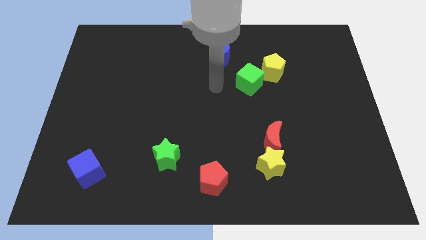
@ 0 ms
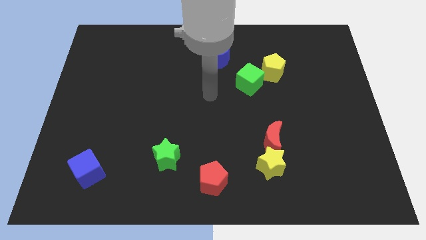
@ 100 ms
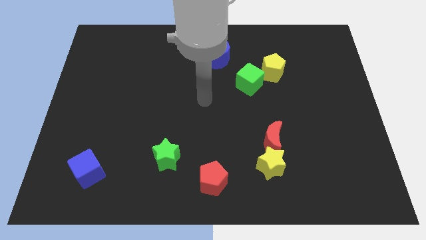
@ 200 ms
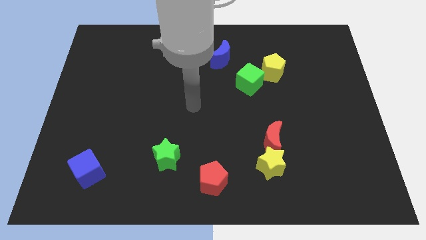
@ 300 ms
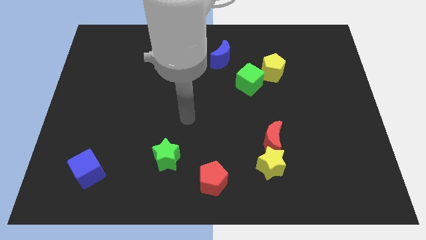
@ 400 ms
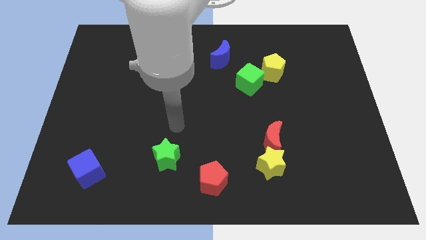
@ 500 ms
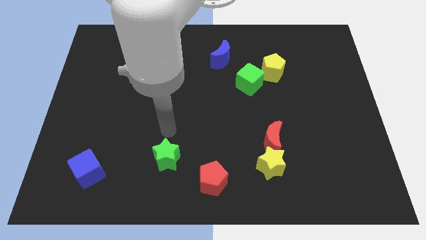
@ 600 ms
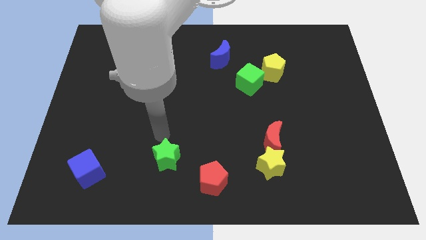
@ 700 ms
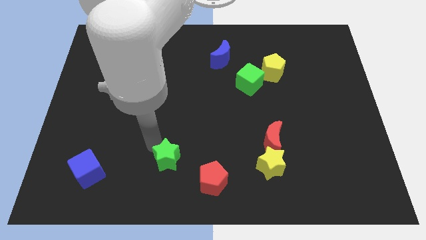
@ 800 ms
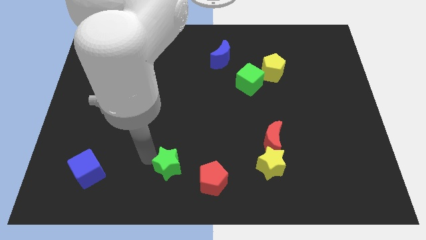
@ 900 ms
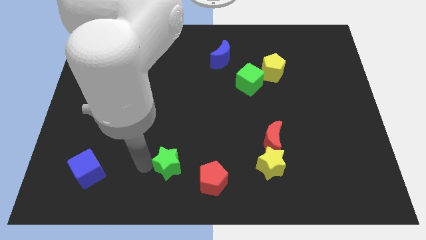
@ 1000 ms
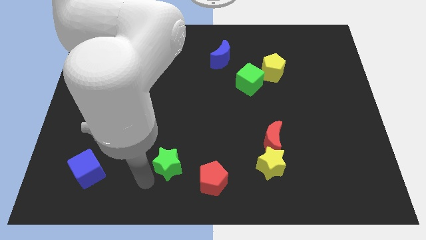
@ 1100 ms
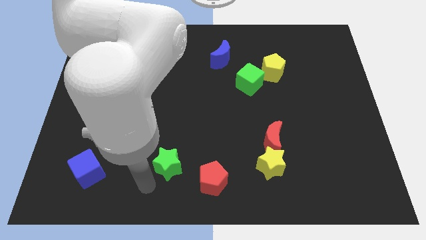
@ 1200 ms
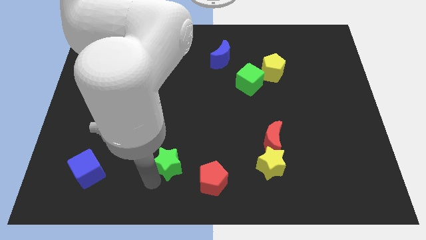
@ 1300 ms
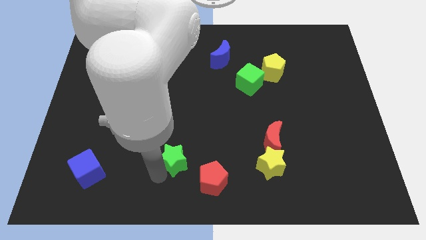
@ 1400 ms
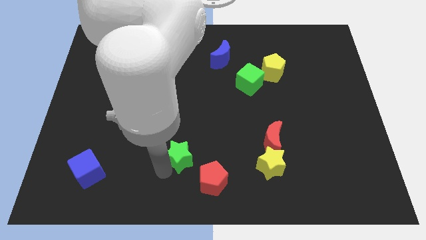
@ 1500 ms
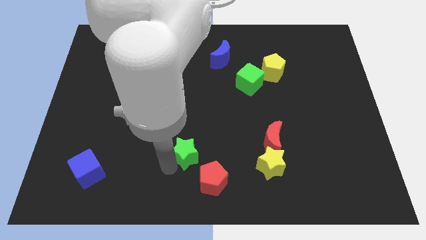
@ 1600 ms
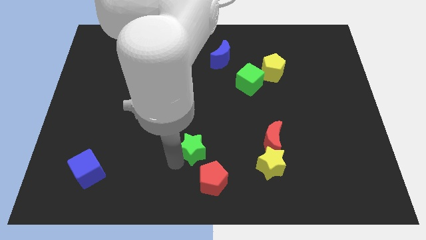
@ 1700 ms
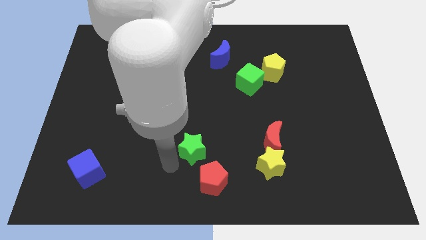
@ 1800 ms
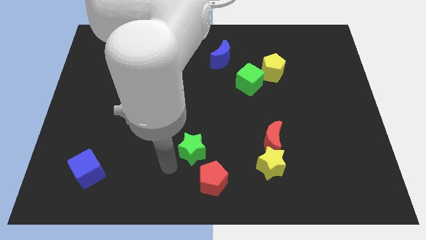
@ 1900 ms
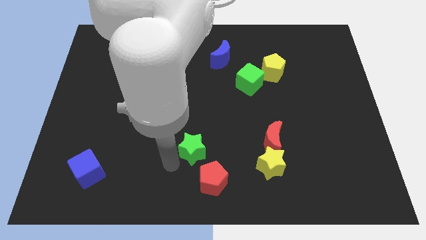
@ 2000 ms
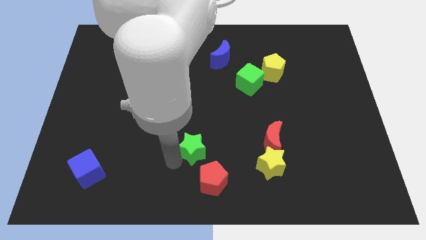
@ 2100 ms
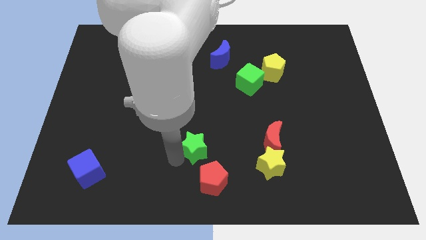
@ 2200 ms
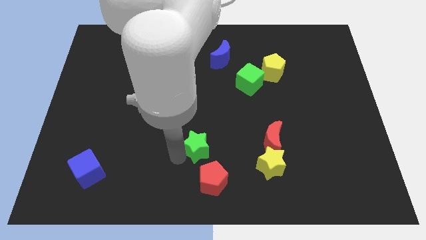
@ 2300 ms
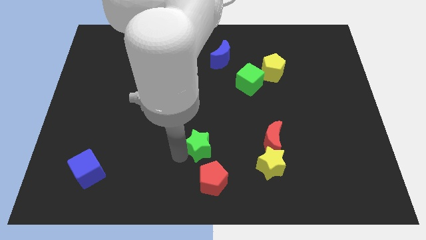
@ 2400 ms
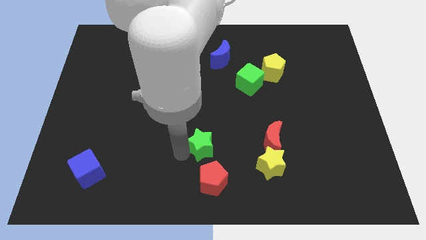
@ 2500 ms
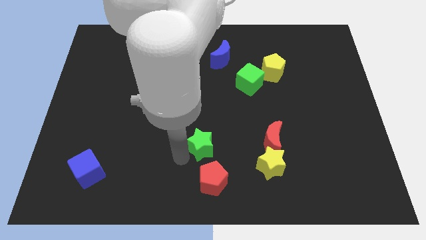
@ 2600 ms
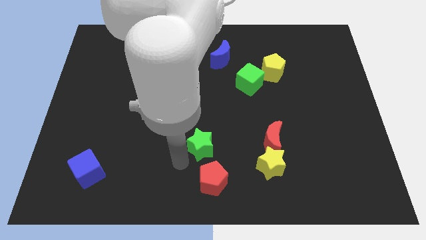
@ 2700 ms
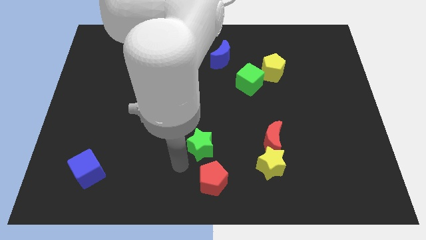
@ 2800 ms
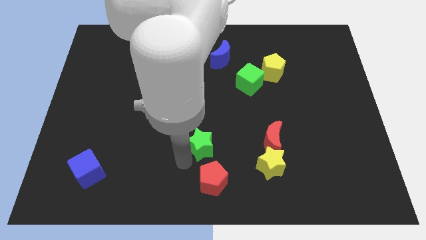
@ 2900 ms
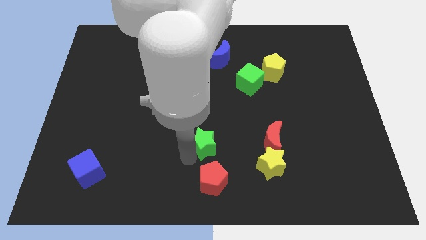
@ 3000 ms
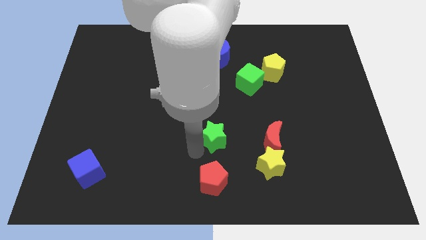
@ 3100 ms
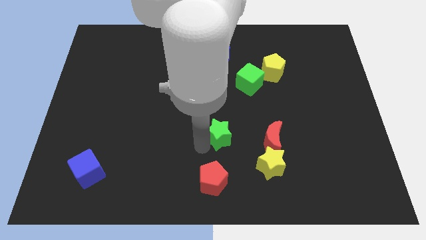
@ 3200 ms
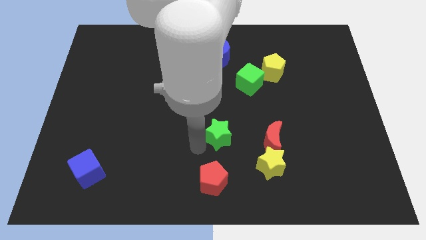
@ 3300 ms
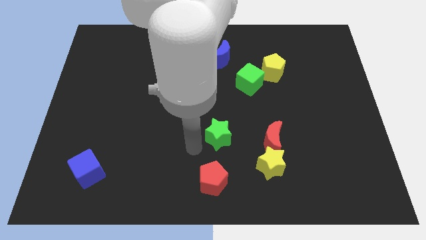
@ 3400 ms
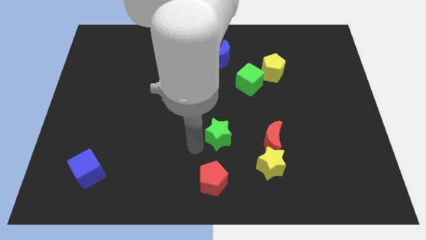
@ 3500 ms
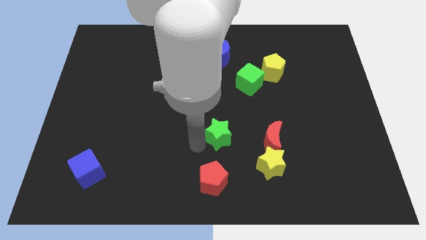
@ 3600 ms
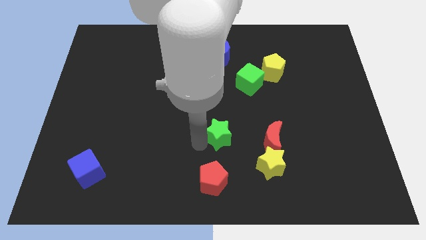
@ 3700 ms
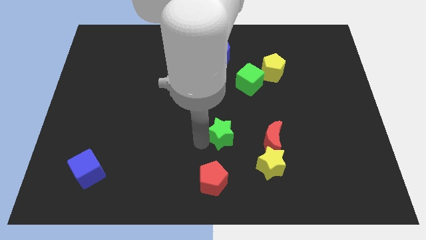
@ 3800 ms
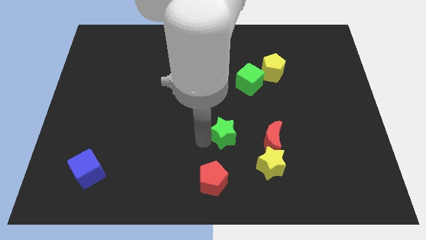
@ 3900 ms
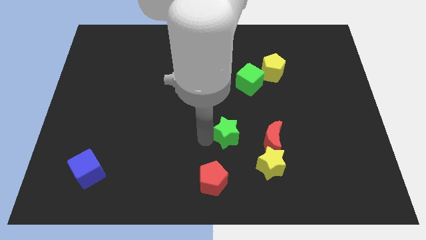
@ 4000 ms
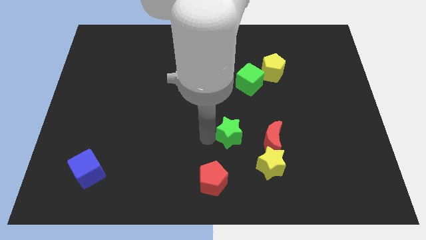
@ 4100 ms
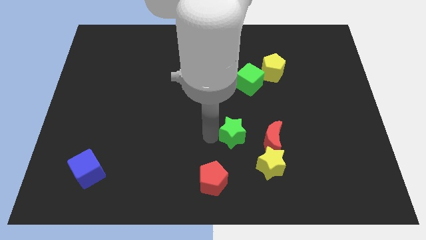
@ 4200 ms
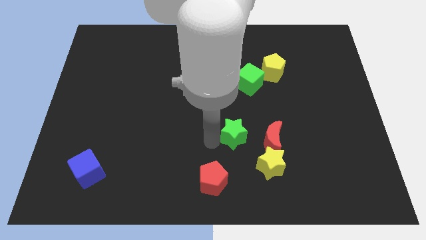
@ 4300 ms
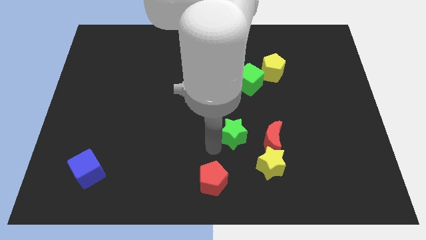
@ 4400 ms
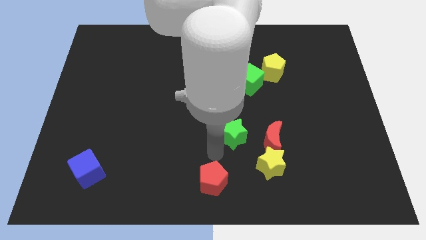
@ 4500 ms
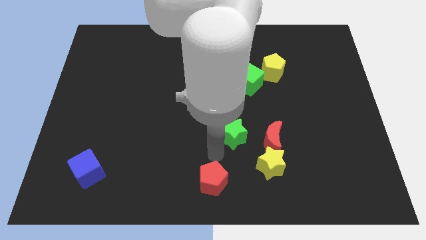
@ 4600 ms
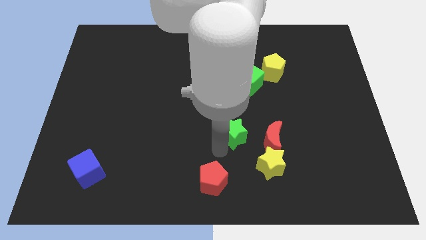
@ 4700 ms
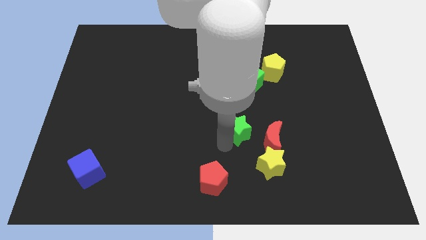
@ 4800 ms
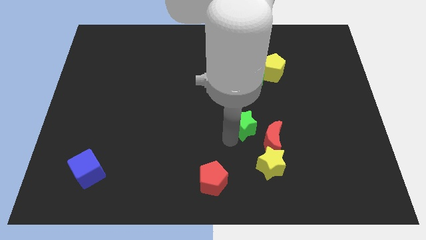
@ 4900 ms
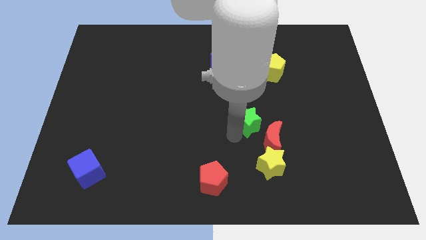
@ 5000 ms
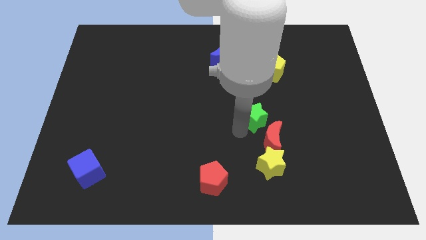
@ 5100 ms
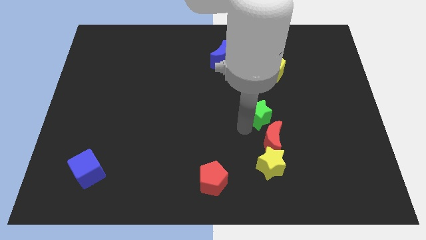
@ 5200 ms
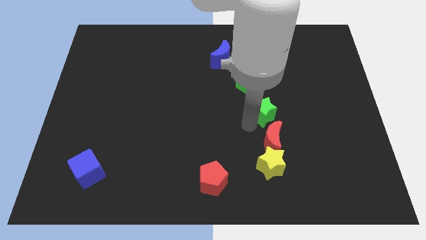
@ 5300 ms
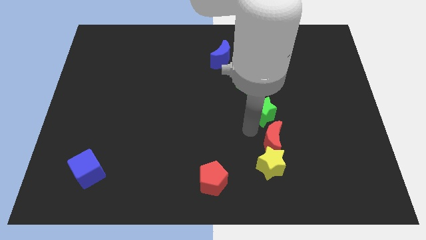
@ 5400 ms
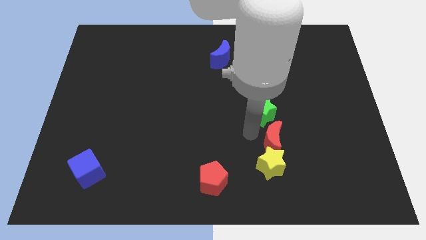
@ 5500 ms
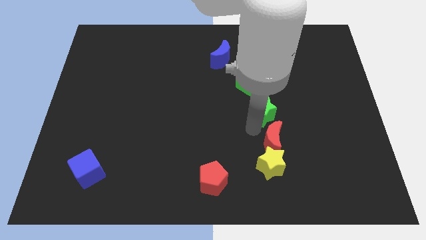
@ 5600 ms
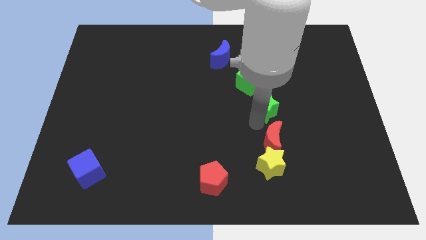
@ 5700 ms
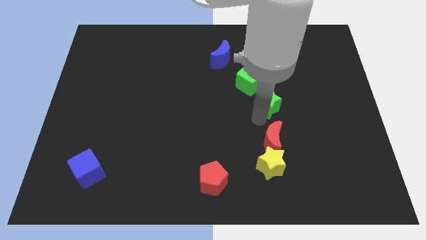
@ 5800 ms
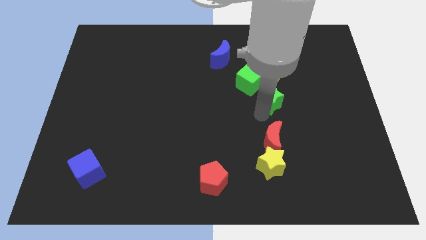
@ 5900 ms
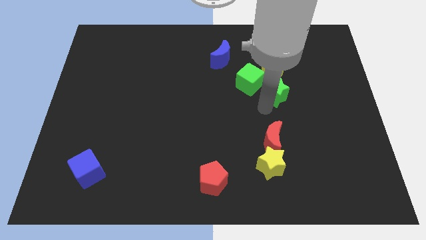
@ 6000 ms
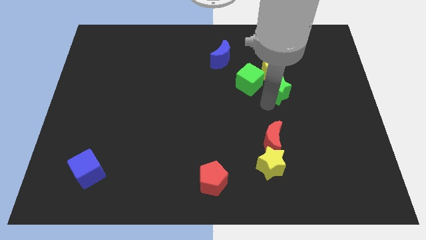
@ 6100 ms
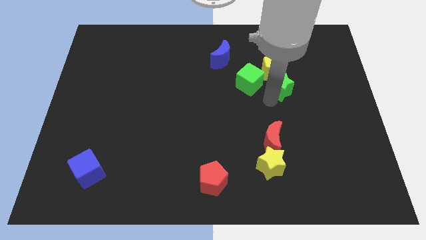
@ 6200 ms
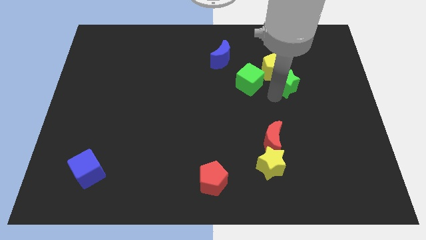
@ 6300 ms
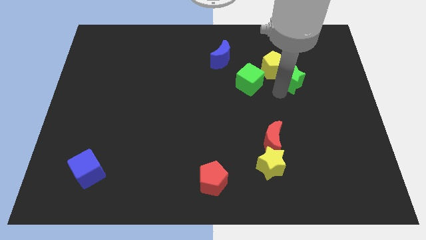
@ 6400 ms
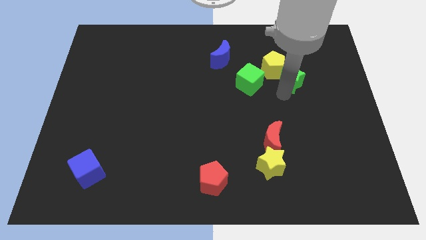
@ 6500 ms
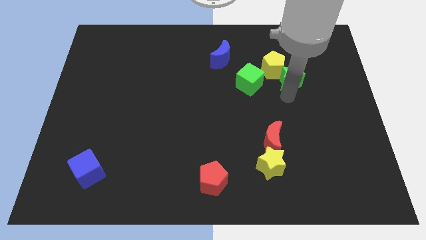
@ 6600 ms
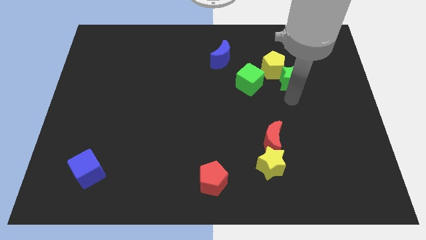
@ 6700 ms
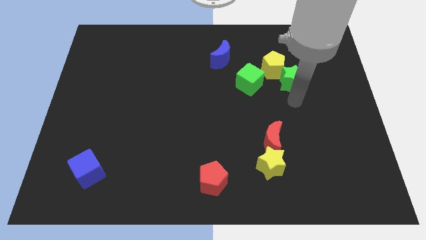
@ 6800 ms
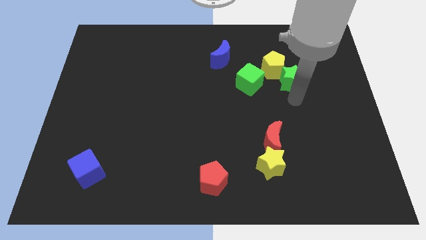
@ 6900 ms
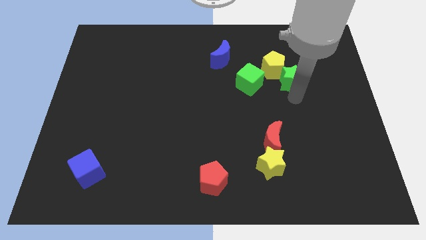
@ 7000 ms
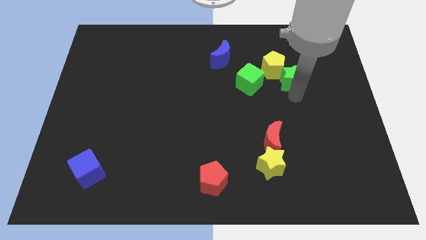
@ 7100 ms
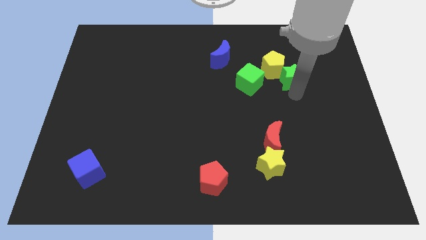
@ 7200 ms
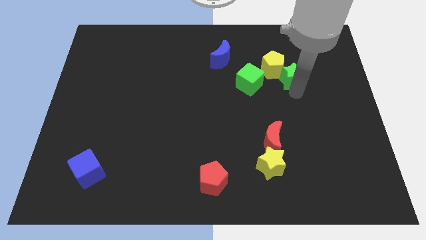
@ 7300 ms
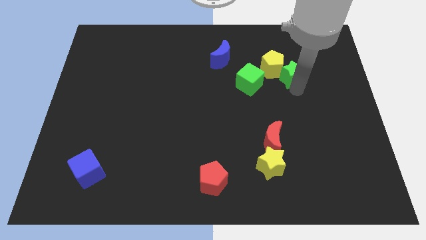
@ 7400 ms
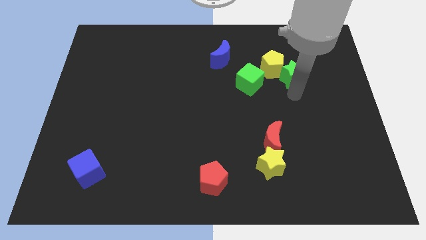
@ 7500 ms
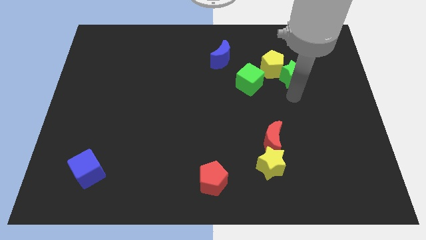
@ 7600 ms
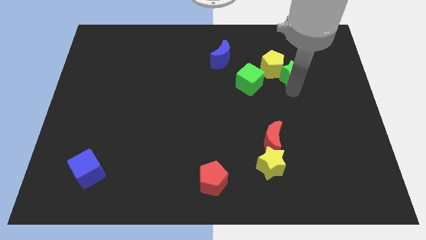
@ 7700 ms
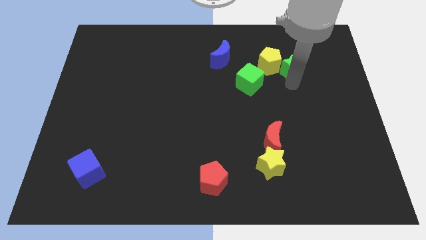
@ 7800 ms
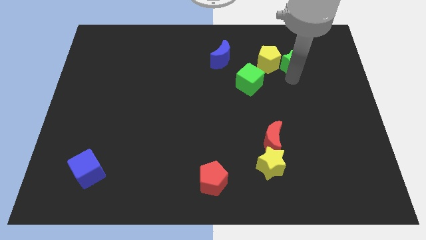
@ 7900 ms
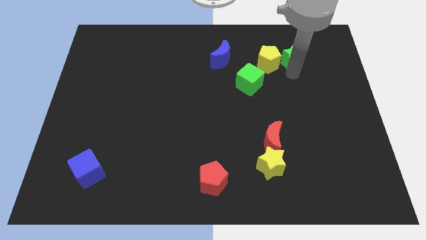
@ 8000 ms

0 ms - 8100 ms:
slide the green star to the top right of the yellow pentagon
